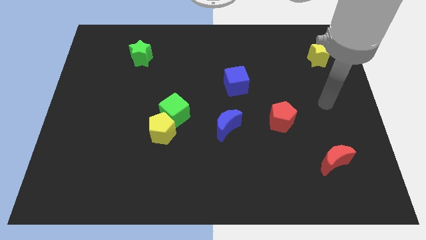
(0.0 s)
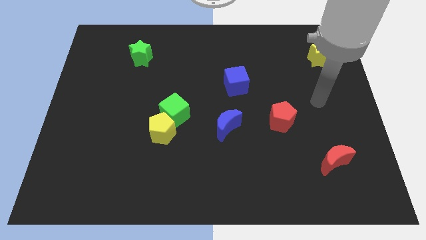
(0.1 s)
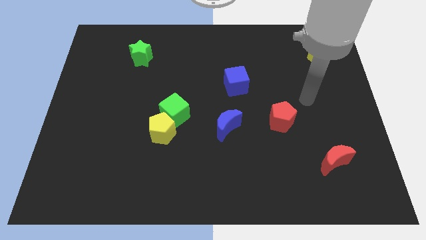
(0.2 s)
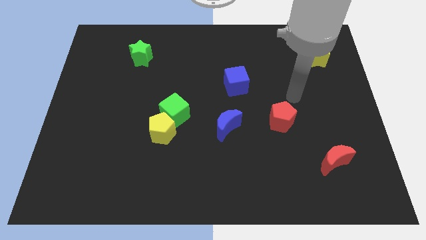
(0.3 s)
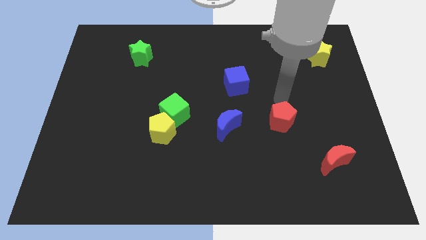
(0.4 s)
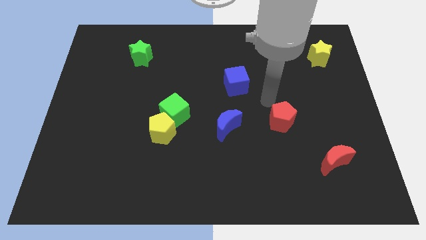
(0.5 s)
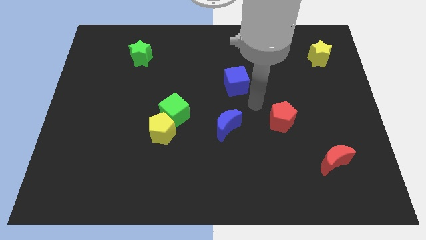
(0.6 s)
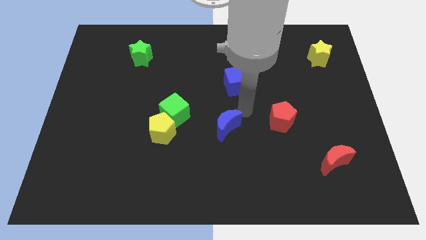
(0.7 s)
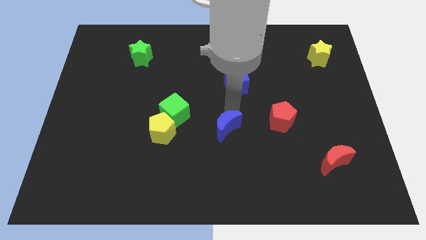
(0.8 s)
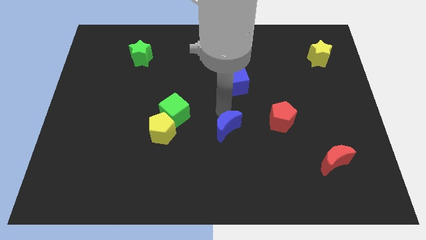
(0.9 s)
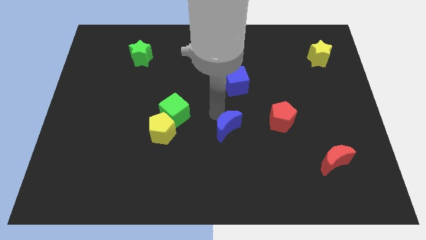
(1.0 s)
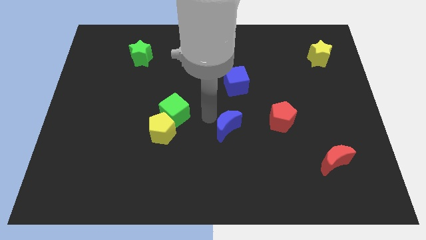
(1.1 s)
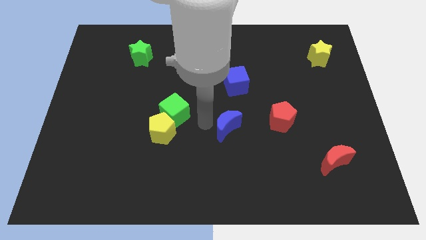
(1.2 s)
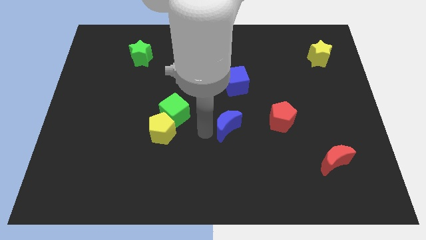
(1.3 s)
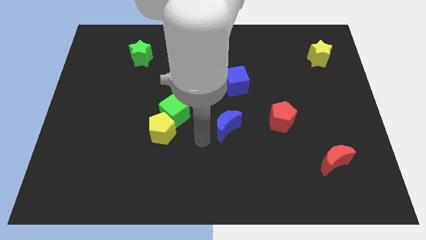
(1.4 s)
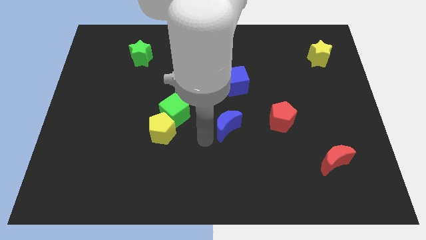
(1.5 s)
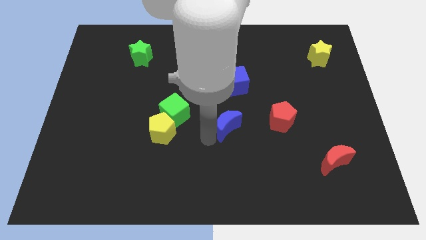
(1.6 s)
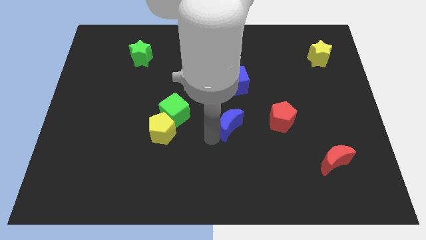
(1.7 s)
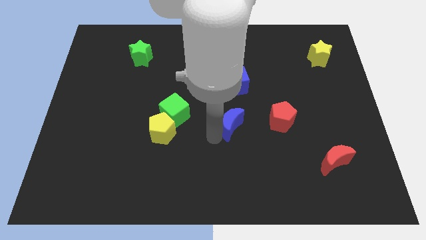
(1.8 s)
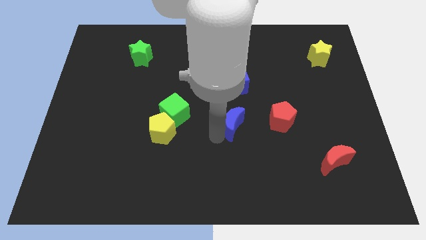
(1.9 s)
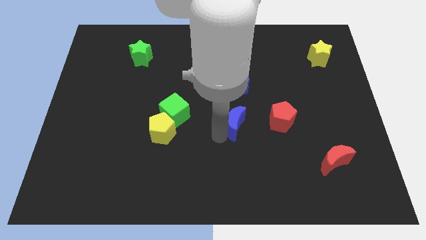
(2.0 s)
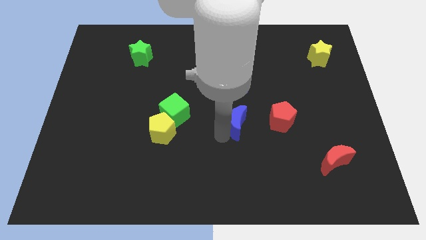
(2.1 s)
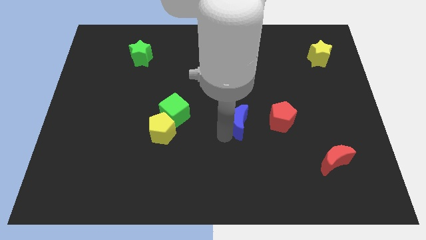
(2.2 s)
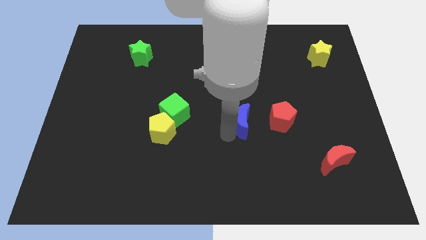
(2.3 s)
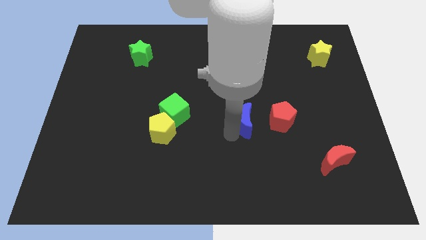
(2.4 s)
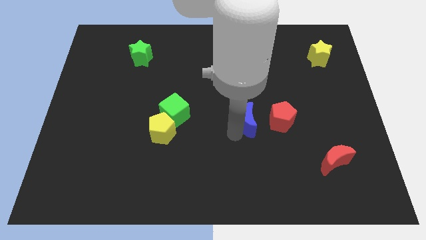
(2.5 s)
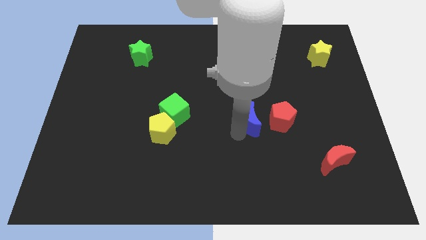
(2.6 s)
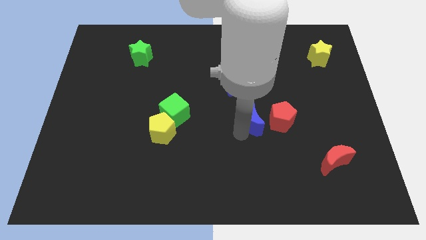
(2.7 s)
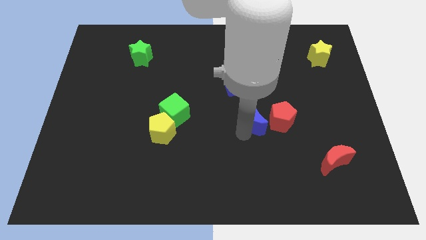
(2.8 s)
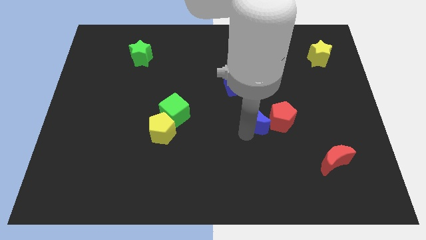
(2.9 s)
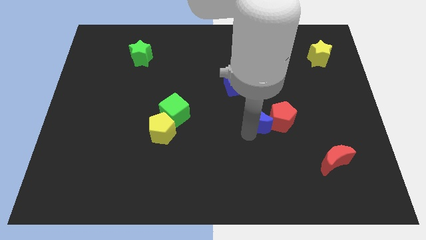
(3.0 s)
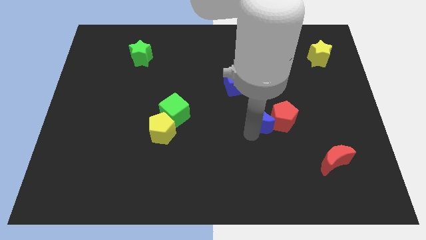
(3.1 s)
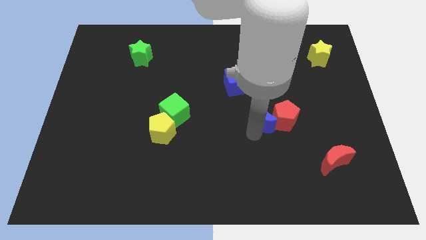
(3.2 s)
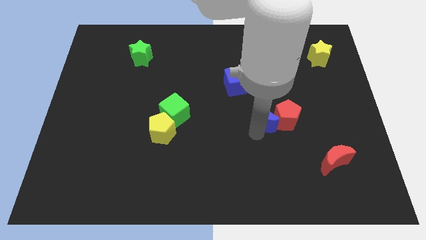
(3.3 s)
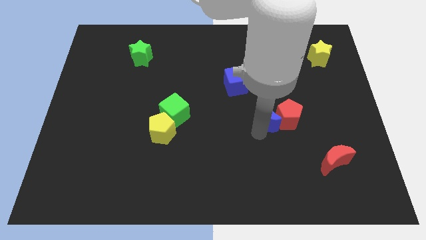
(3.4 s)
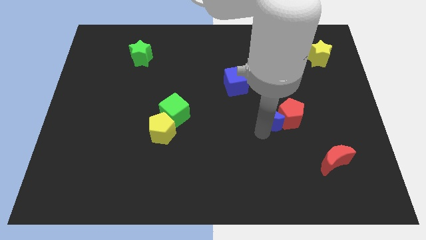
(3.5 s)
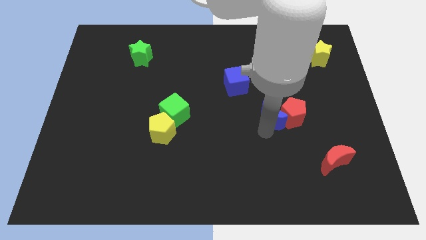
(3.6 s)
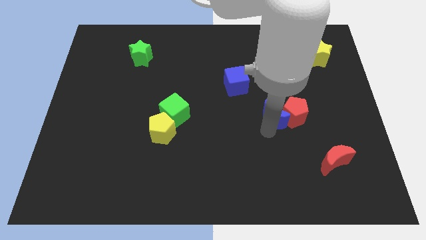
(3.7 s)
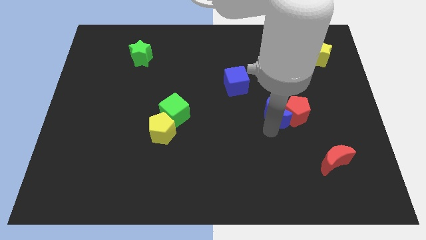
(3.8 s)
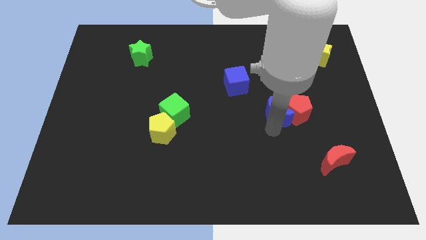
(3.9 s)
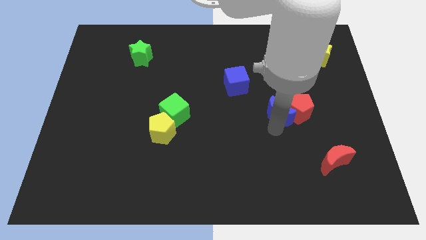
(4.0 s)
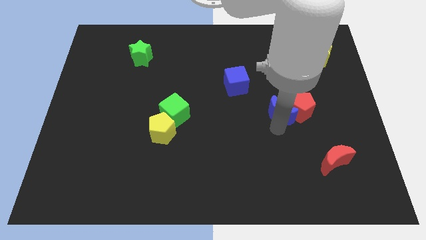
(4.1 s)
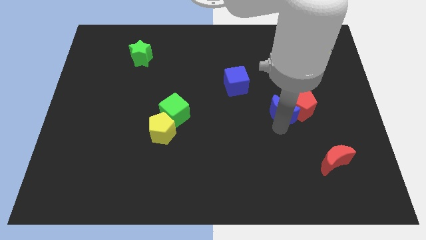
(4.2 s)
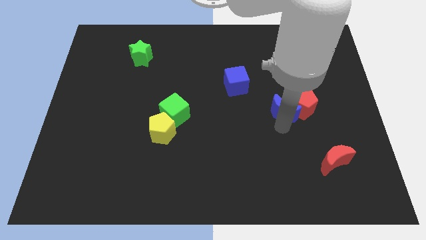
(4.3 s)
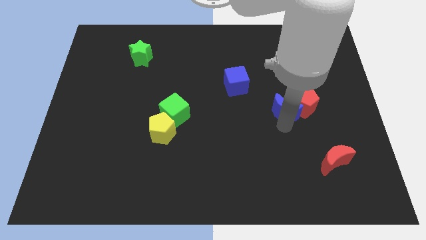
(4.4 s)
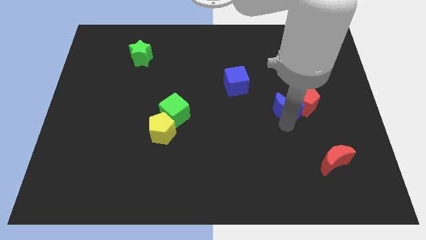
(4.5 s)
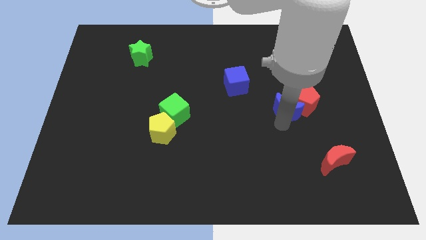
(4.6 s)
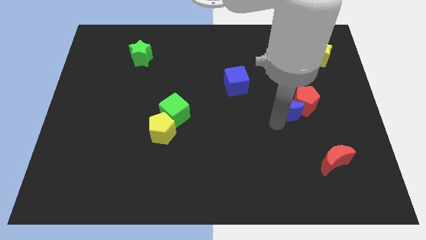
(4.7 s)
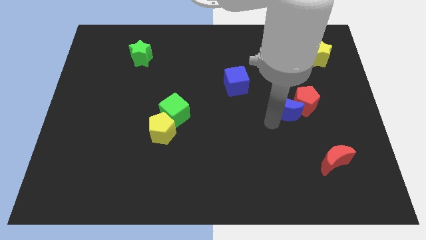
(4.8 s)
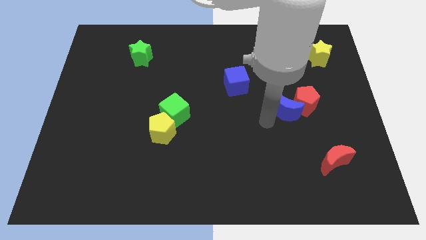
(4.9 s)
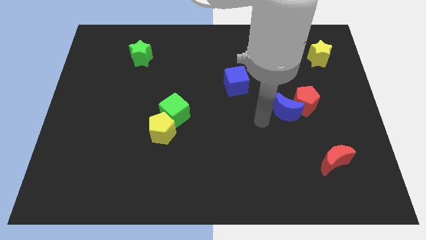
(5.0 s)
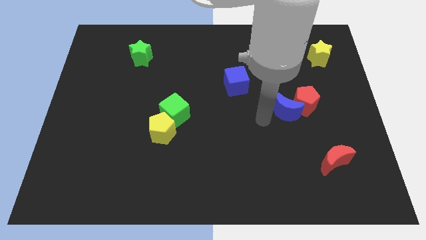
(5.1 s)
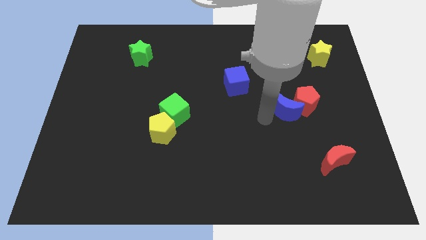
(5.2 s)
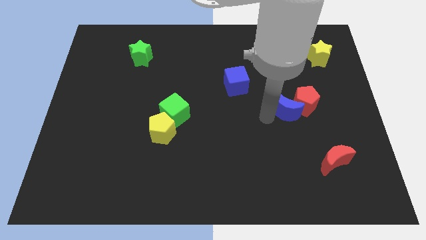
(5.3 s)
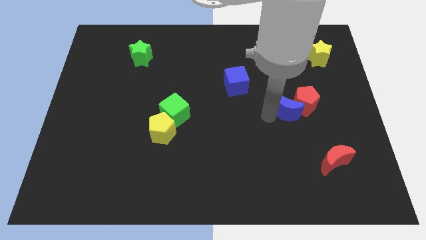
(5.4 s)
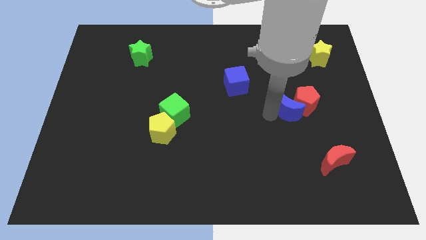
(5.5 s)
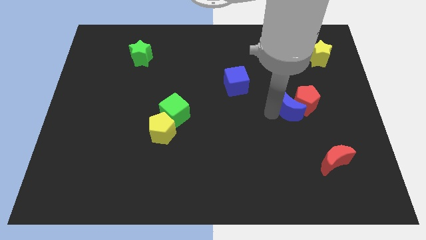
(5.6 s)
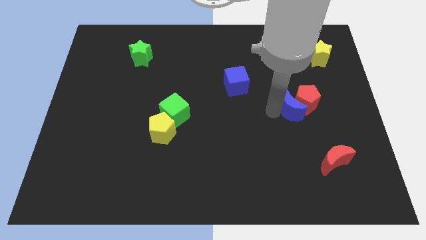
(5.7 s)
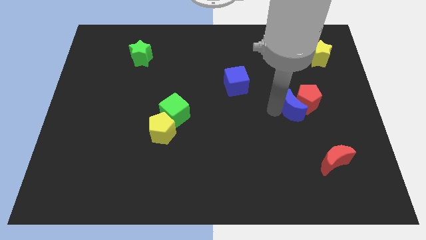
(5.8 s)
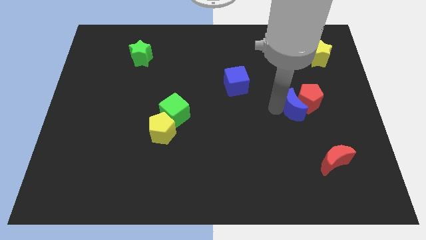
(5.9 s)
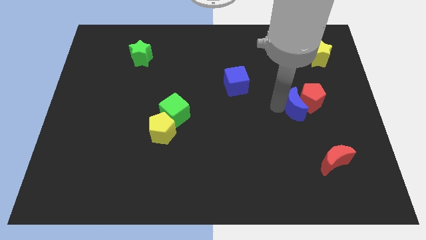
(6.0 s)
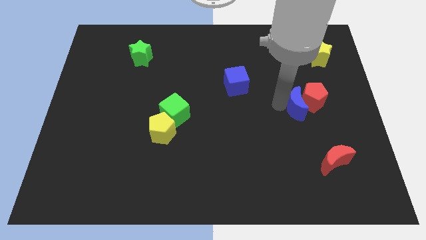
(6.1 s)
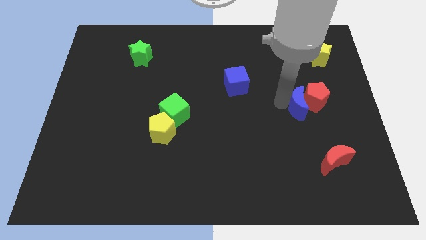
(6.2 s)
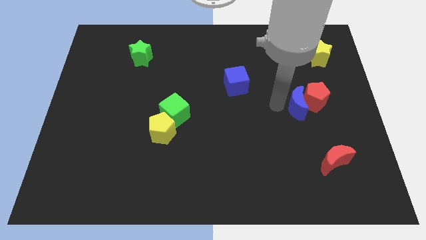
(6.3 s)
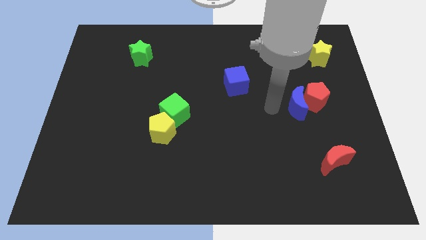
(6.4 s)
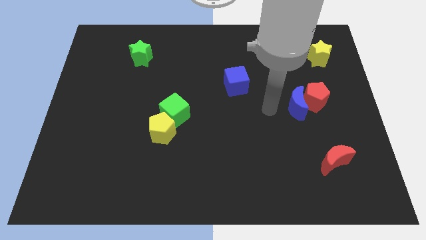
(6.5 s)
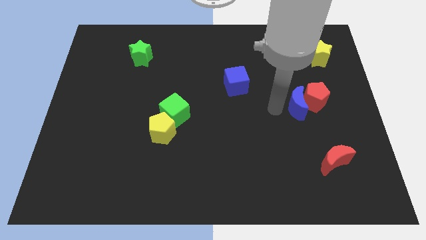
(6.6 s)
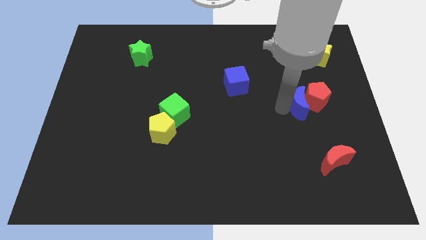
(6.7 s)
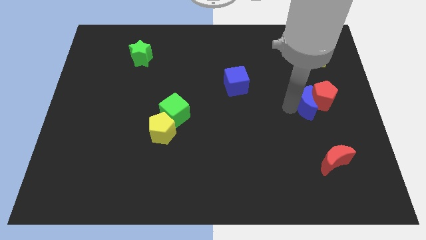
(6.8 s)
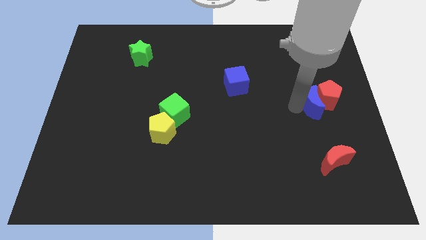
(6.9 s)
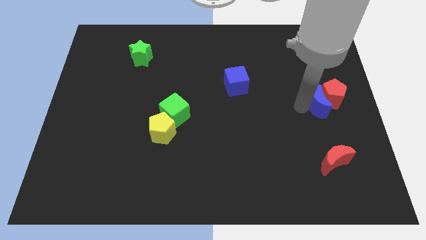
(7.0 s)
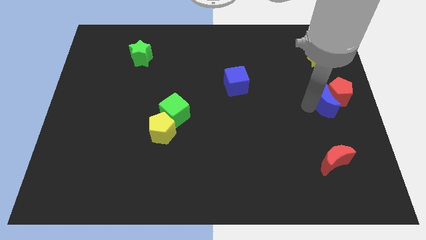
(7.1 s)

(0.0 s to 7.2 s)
move the blue moon to the center right
